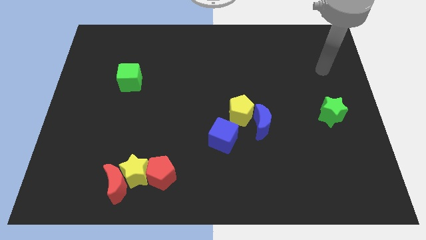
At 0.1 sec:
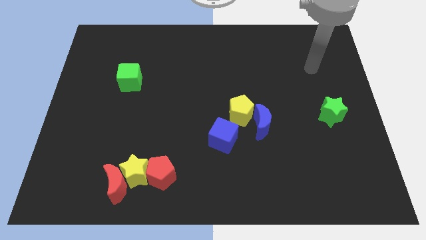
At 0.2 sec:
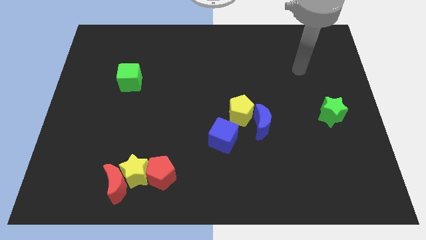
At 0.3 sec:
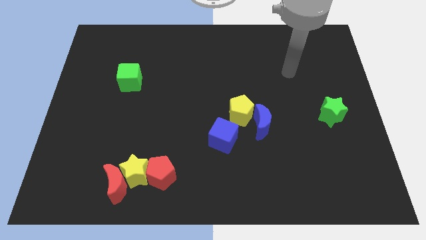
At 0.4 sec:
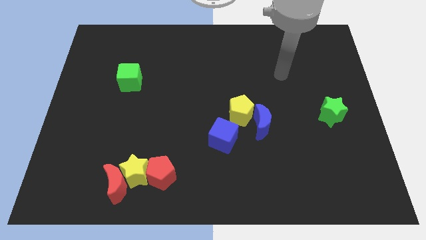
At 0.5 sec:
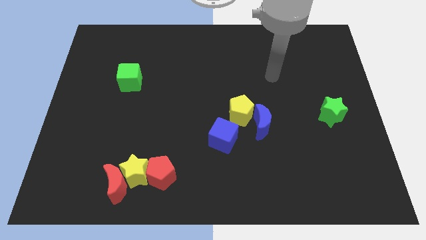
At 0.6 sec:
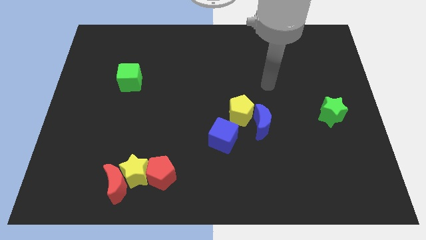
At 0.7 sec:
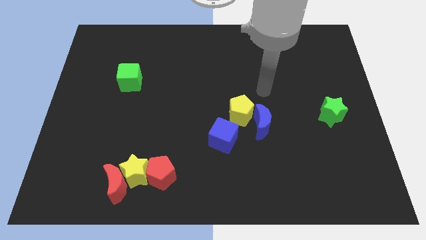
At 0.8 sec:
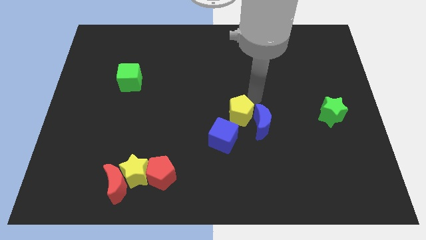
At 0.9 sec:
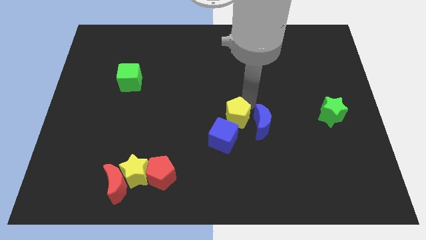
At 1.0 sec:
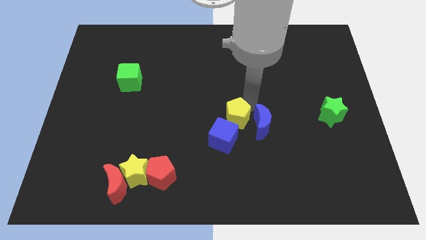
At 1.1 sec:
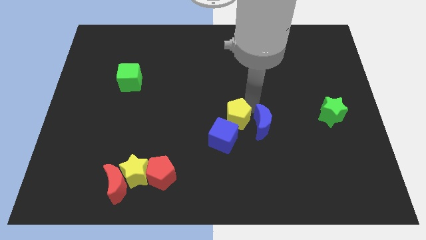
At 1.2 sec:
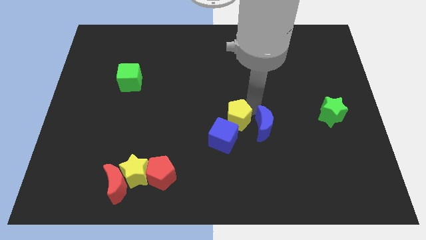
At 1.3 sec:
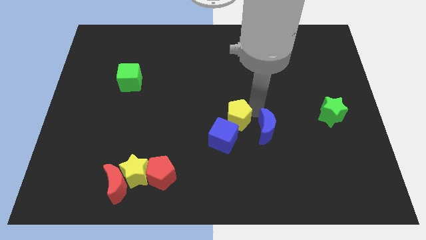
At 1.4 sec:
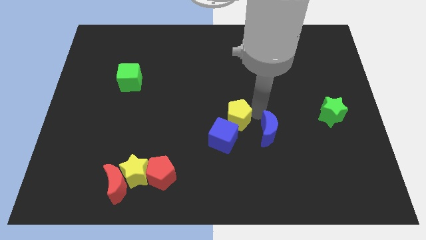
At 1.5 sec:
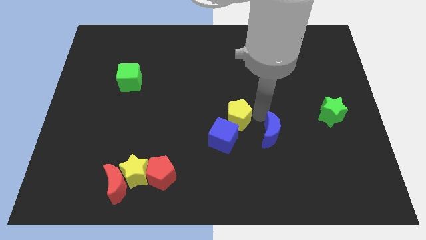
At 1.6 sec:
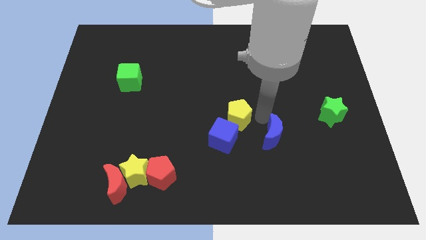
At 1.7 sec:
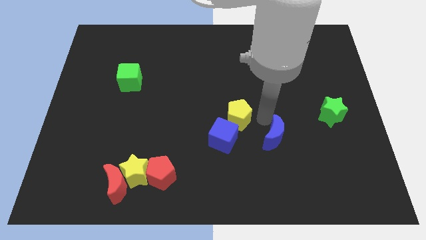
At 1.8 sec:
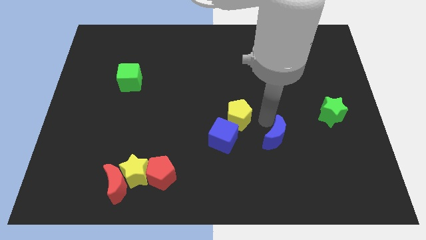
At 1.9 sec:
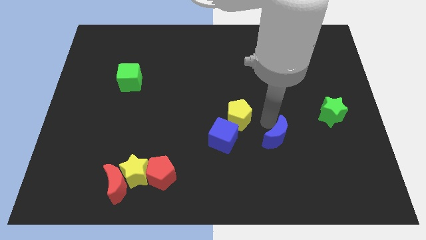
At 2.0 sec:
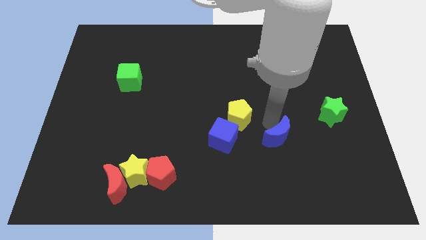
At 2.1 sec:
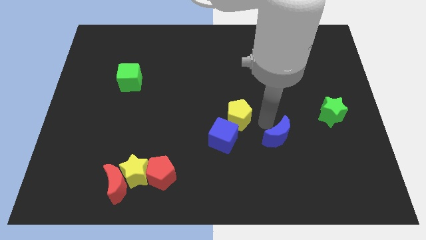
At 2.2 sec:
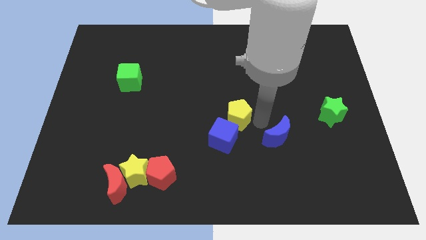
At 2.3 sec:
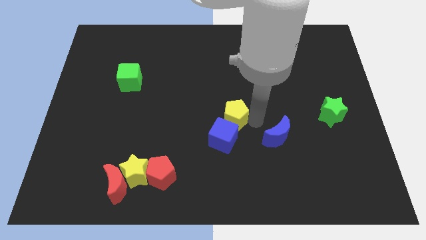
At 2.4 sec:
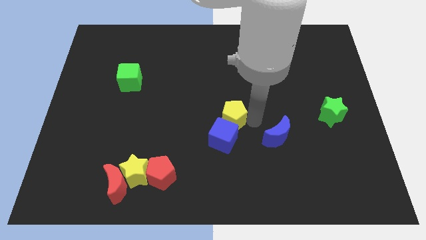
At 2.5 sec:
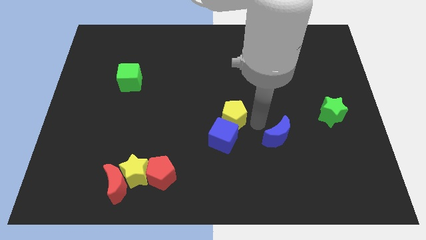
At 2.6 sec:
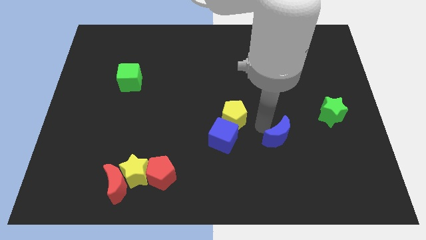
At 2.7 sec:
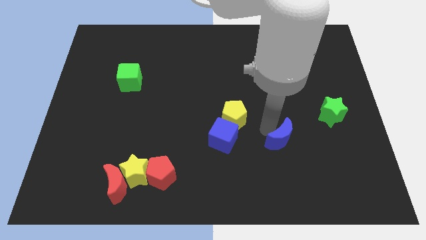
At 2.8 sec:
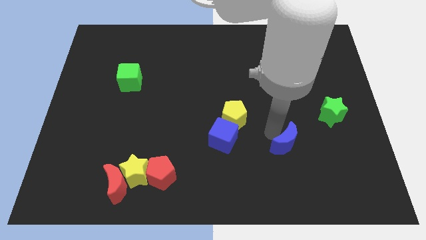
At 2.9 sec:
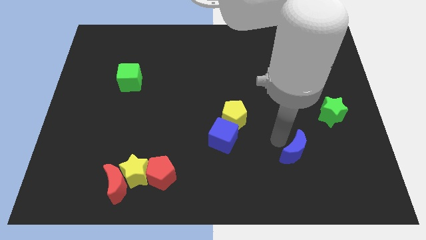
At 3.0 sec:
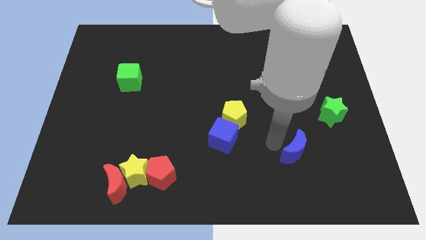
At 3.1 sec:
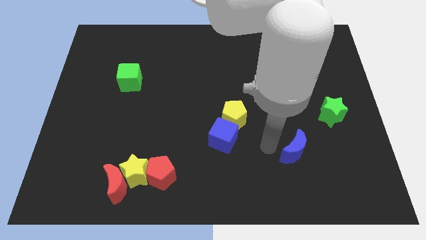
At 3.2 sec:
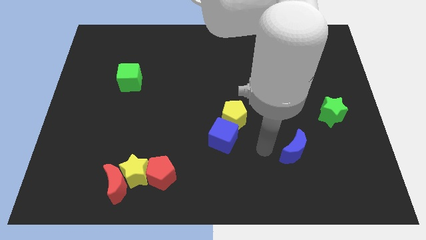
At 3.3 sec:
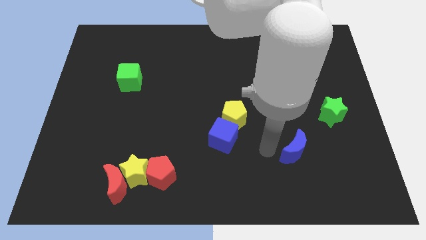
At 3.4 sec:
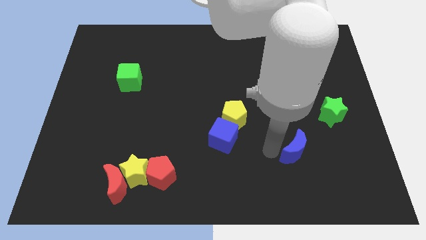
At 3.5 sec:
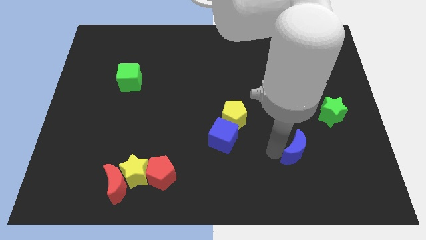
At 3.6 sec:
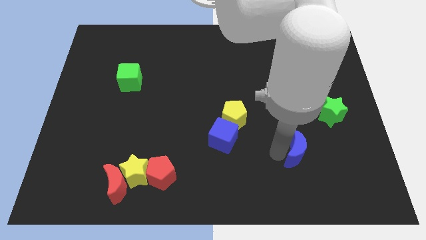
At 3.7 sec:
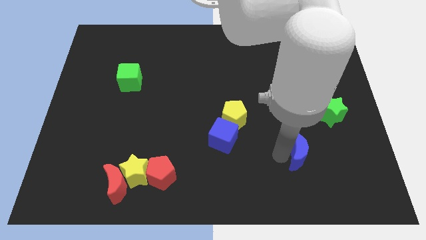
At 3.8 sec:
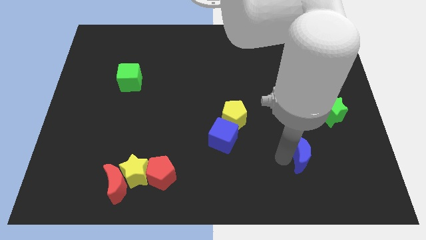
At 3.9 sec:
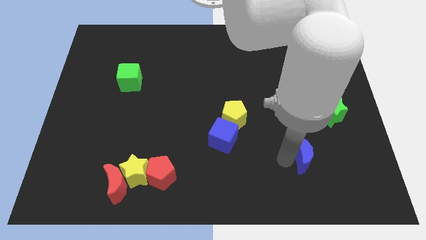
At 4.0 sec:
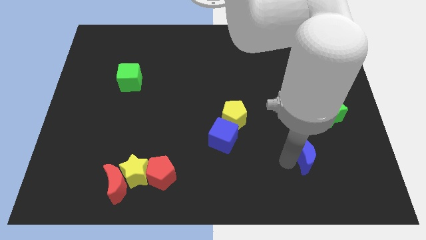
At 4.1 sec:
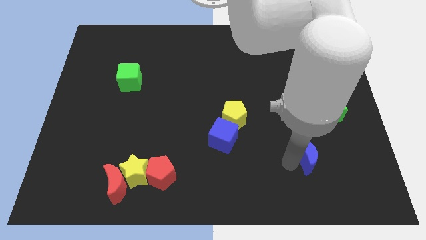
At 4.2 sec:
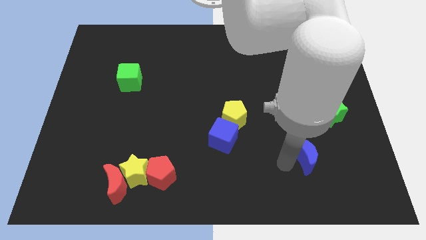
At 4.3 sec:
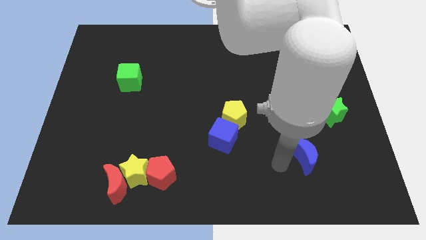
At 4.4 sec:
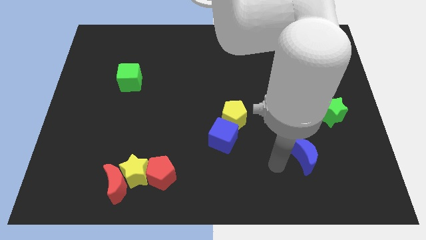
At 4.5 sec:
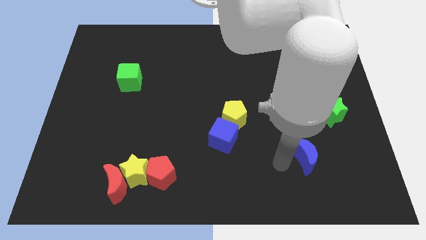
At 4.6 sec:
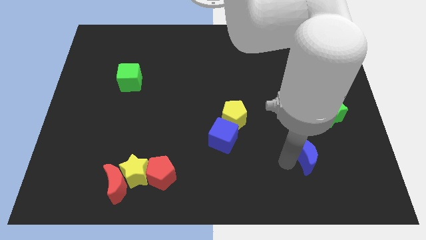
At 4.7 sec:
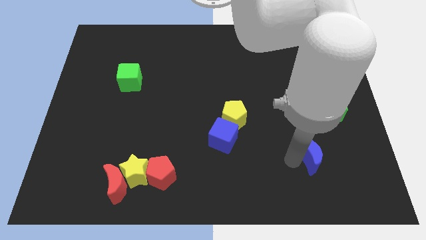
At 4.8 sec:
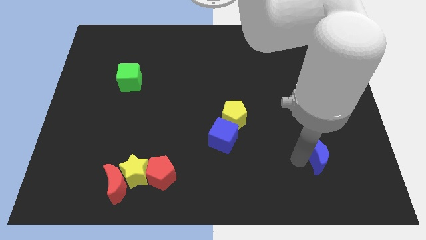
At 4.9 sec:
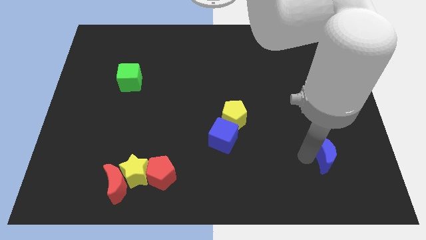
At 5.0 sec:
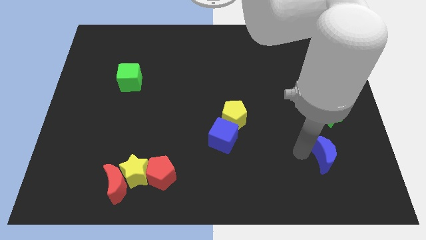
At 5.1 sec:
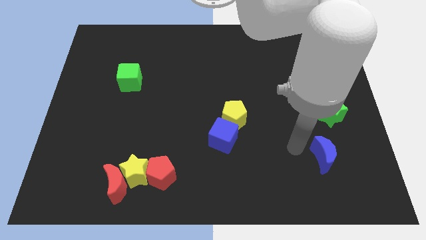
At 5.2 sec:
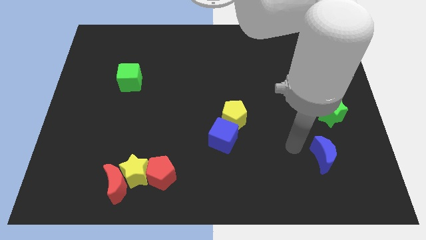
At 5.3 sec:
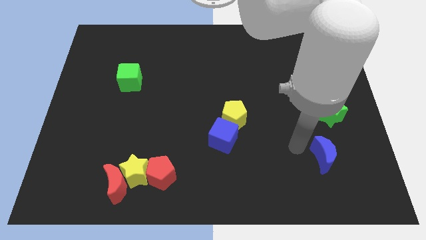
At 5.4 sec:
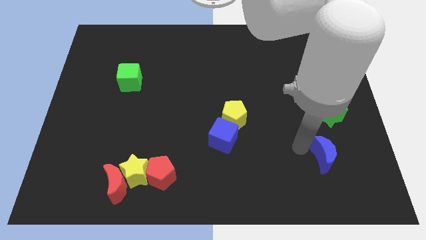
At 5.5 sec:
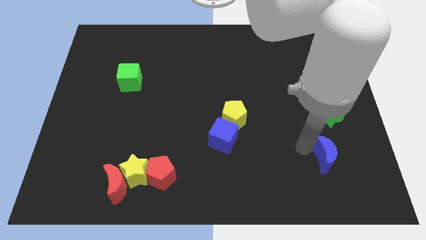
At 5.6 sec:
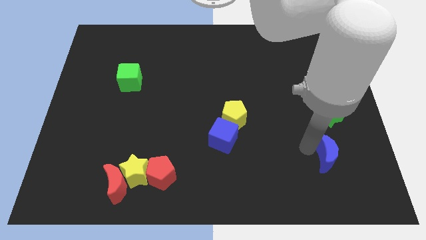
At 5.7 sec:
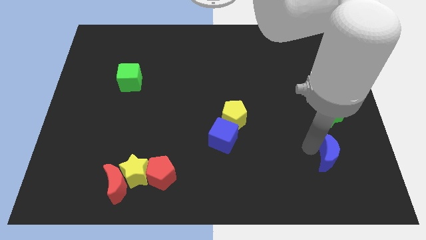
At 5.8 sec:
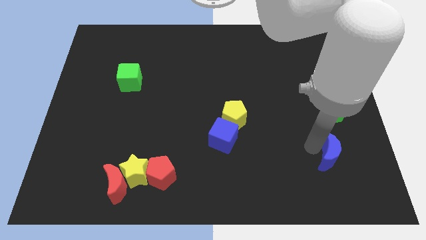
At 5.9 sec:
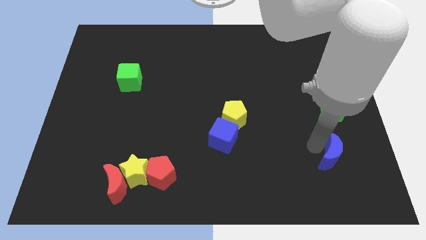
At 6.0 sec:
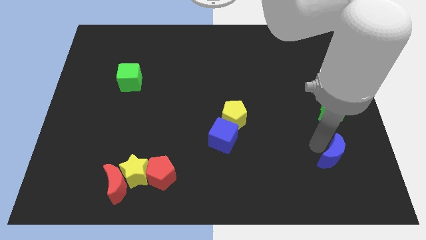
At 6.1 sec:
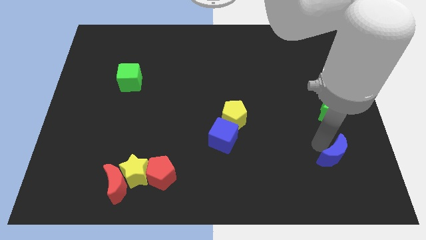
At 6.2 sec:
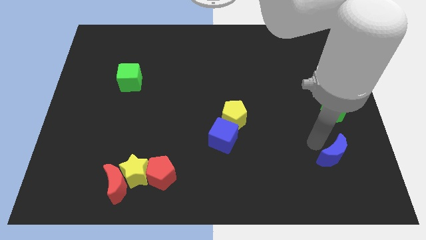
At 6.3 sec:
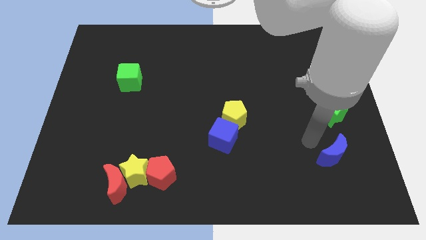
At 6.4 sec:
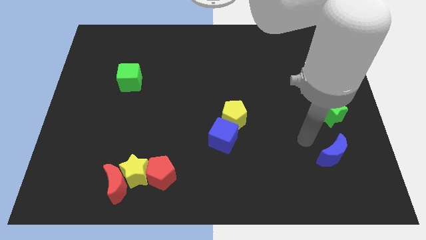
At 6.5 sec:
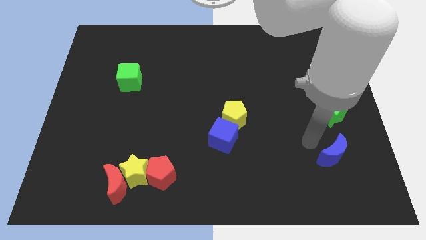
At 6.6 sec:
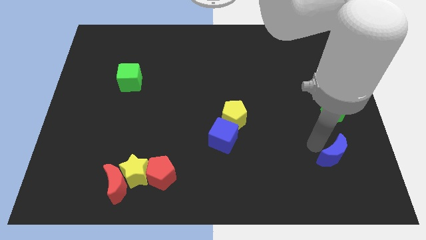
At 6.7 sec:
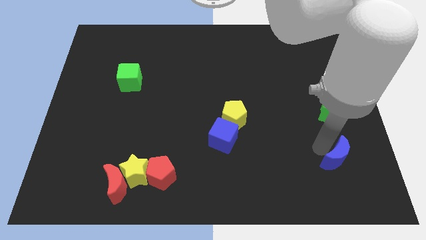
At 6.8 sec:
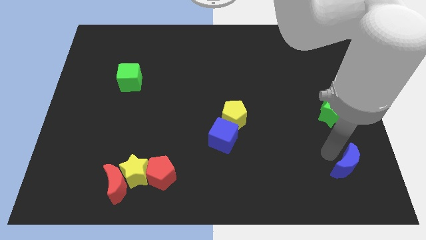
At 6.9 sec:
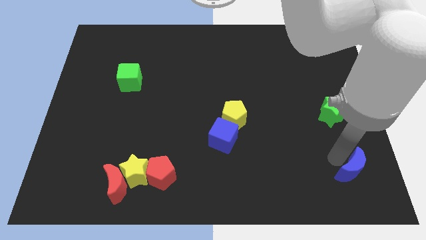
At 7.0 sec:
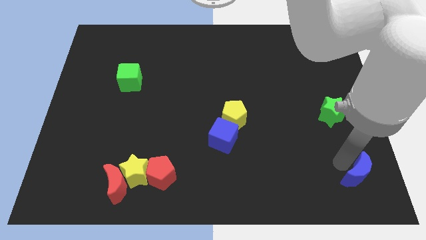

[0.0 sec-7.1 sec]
slide the blue moon to the bottom right
